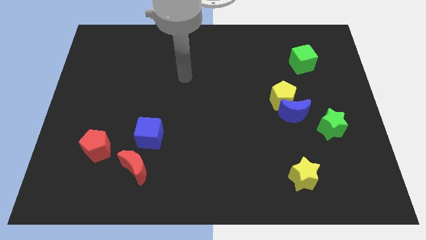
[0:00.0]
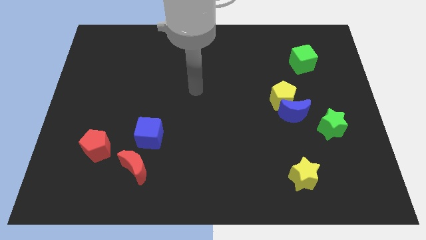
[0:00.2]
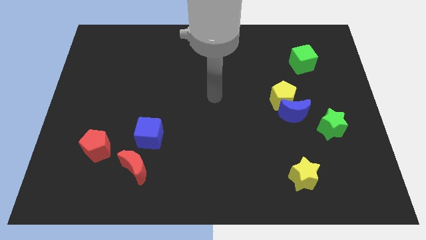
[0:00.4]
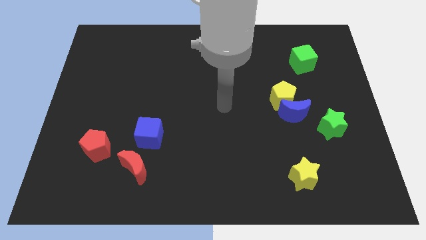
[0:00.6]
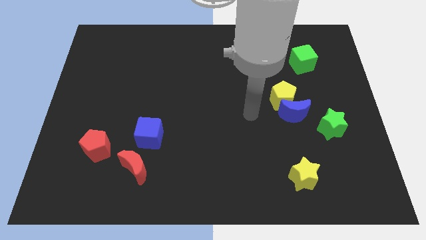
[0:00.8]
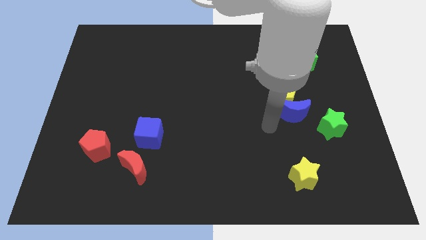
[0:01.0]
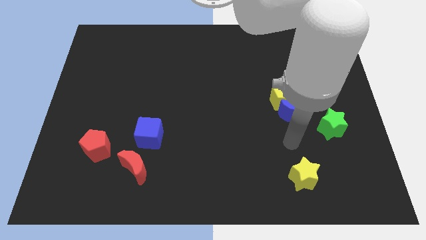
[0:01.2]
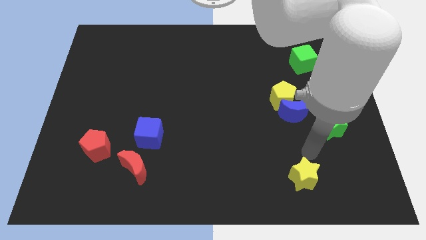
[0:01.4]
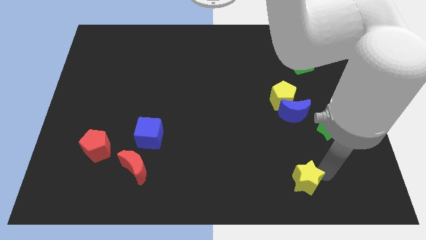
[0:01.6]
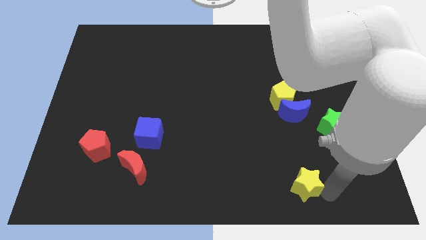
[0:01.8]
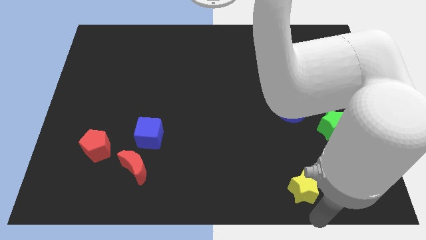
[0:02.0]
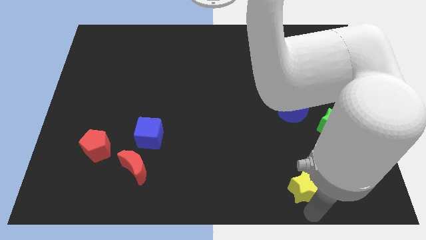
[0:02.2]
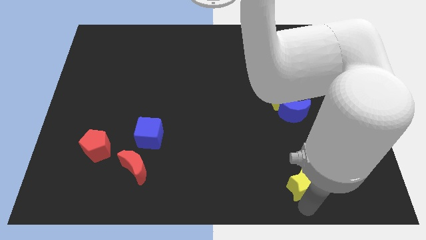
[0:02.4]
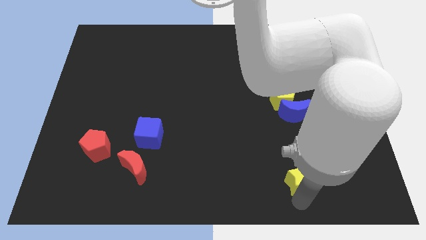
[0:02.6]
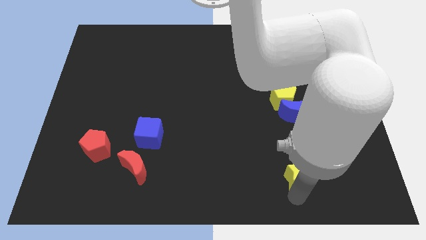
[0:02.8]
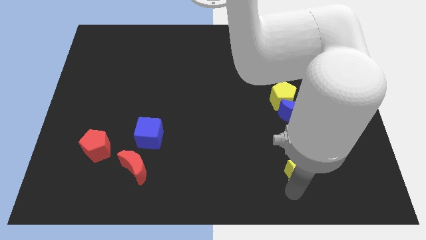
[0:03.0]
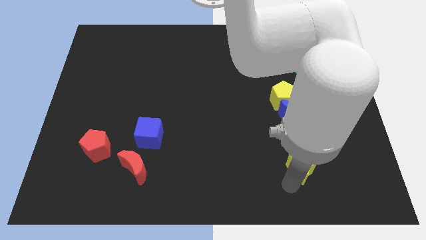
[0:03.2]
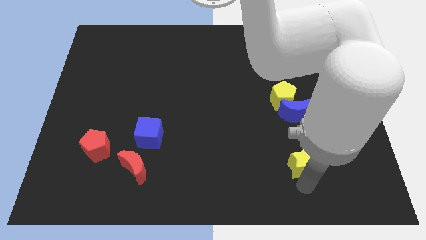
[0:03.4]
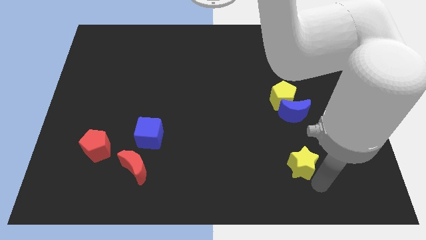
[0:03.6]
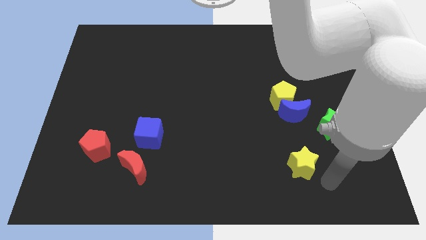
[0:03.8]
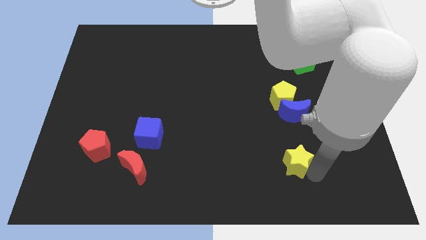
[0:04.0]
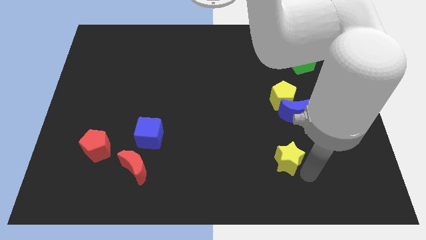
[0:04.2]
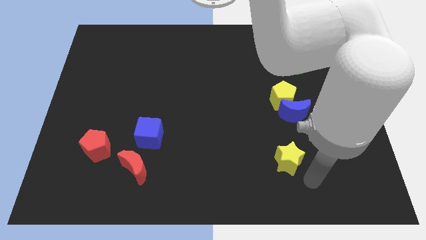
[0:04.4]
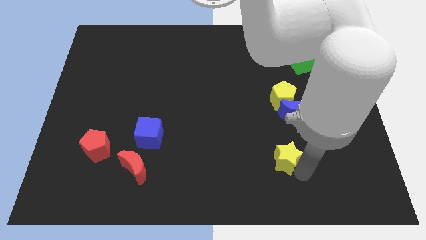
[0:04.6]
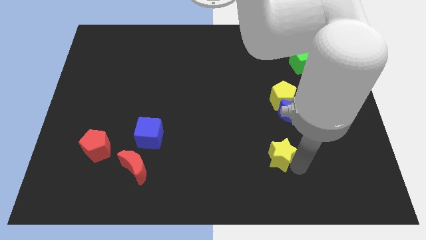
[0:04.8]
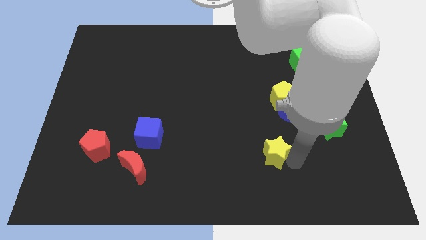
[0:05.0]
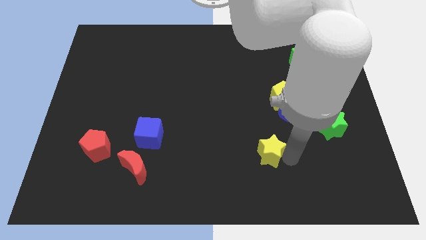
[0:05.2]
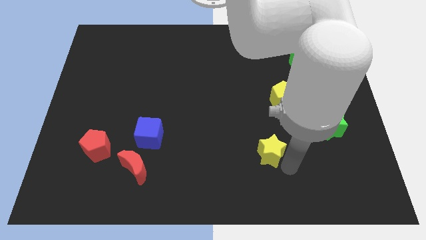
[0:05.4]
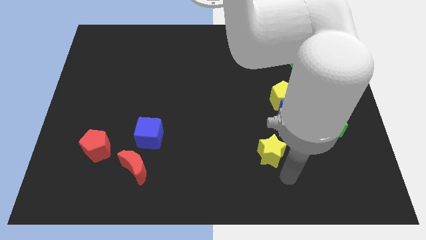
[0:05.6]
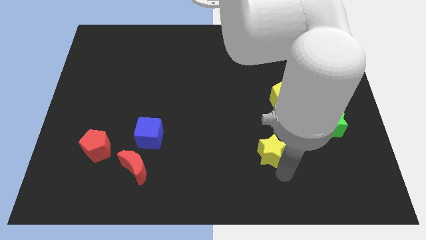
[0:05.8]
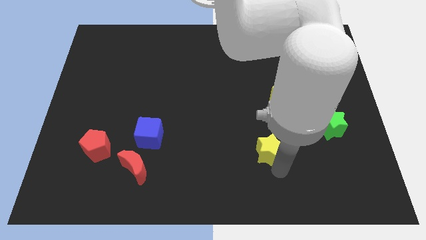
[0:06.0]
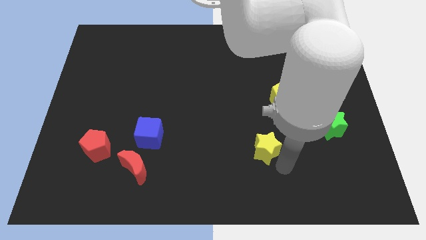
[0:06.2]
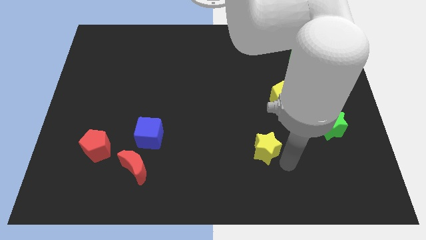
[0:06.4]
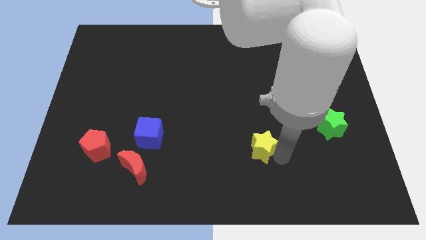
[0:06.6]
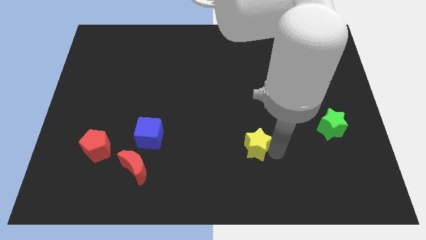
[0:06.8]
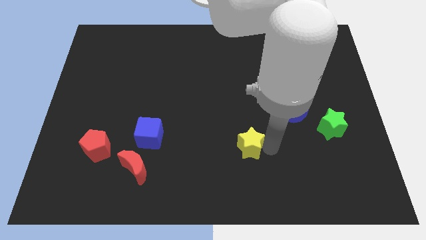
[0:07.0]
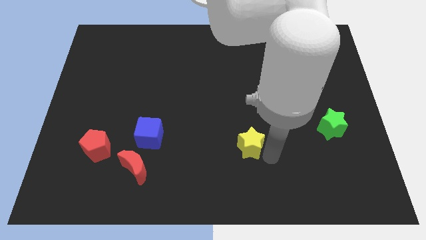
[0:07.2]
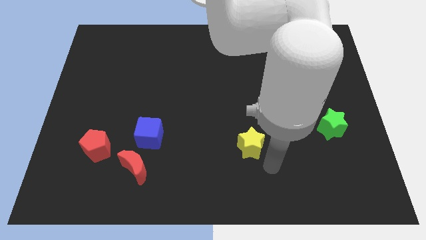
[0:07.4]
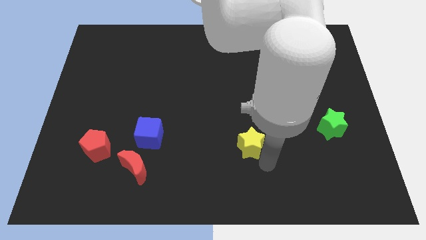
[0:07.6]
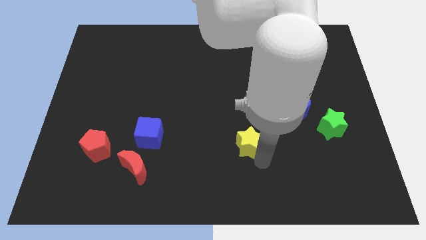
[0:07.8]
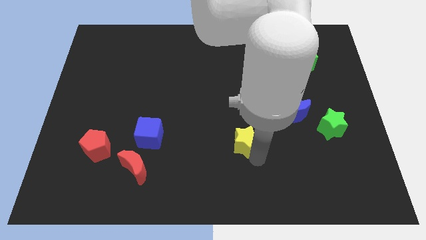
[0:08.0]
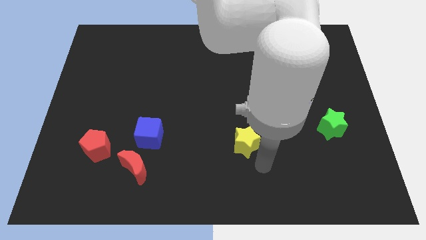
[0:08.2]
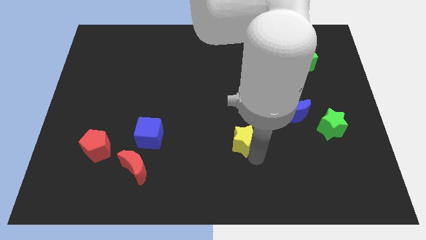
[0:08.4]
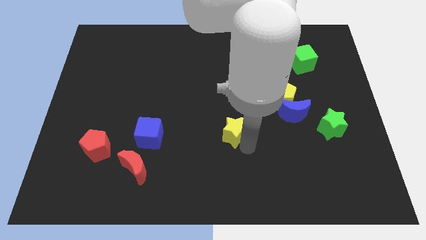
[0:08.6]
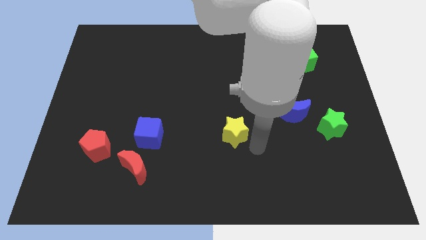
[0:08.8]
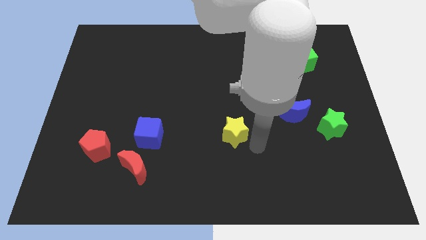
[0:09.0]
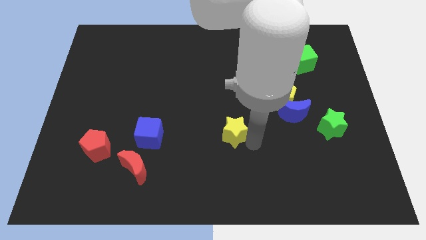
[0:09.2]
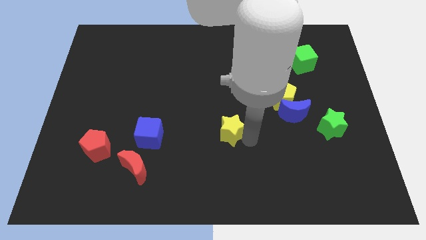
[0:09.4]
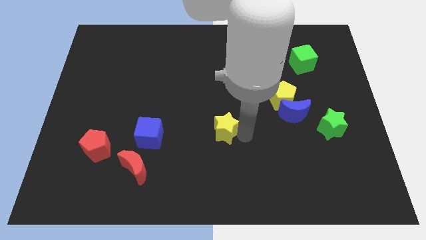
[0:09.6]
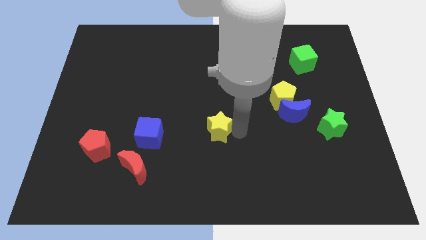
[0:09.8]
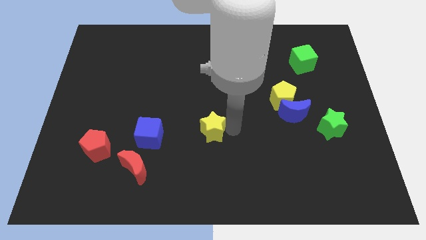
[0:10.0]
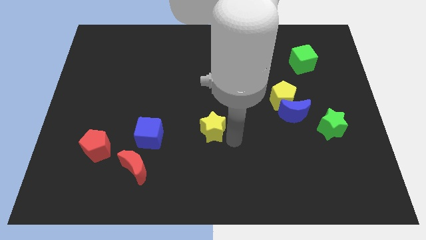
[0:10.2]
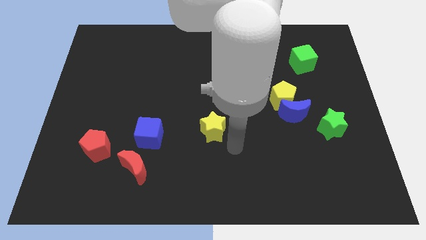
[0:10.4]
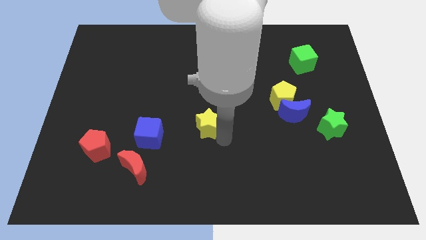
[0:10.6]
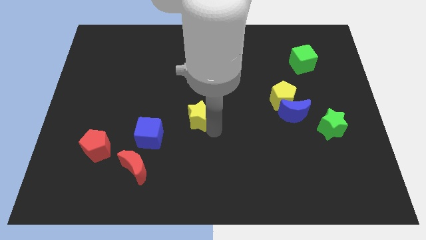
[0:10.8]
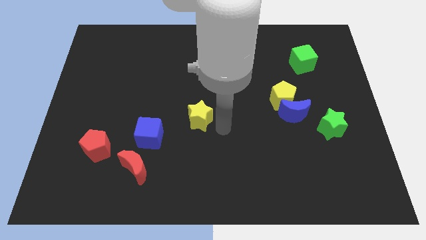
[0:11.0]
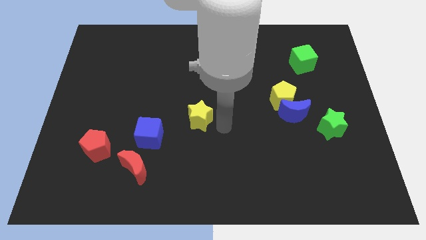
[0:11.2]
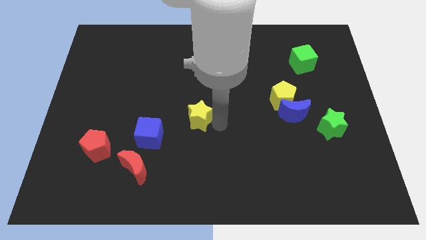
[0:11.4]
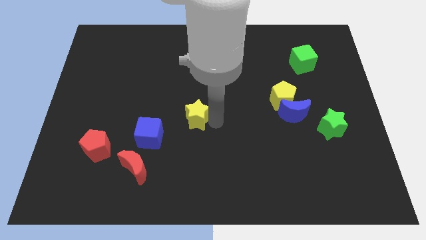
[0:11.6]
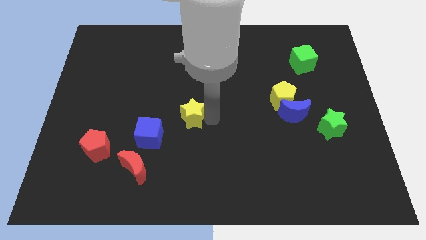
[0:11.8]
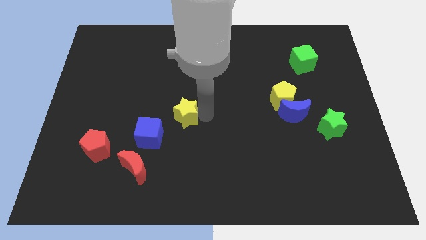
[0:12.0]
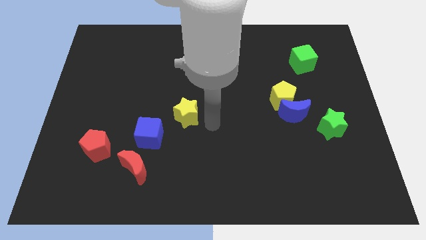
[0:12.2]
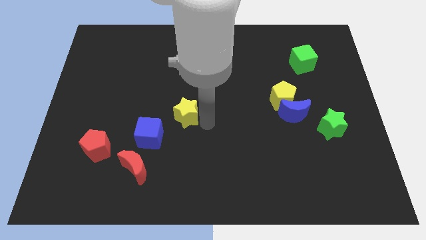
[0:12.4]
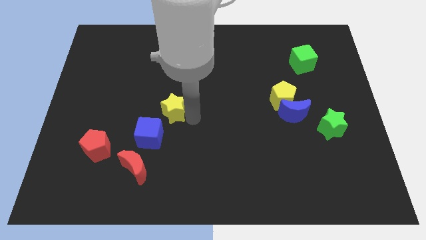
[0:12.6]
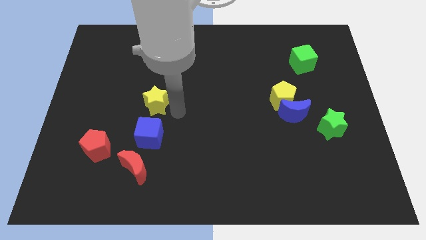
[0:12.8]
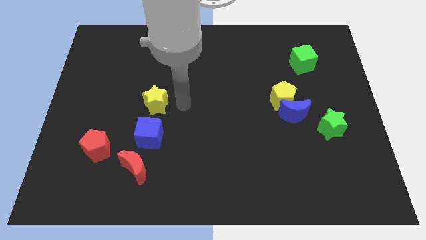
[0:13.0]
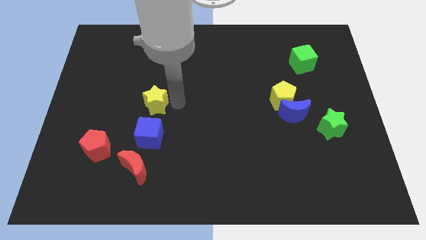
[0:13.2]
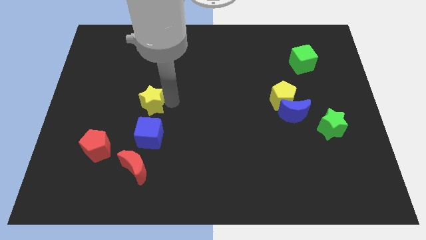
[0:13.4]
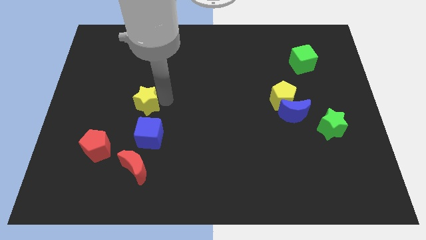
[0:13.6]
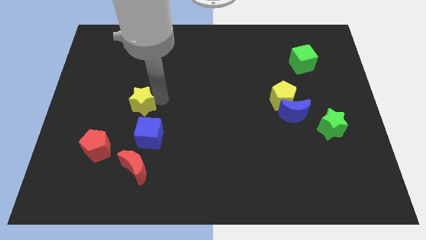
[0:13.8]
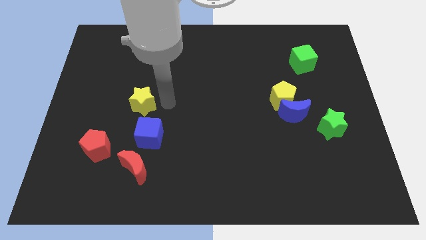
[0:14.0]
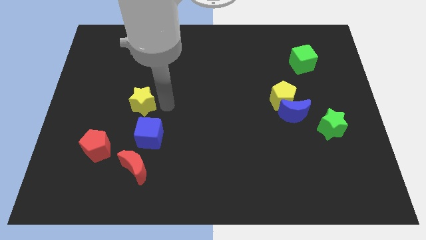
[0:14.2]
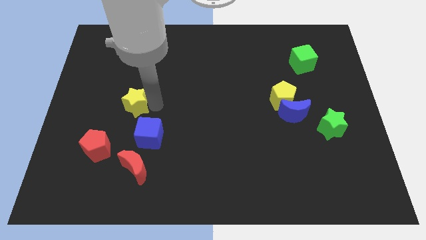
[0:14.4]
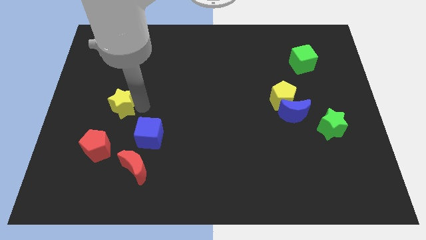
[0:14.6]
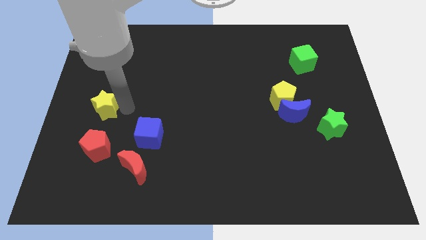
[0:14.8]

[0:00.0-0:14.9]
move the yellow star to the center left
